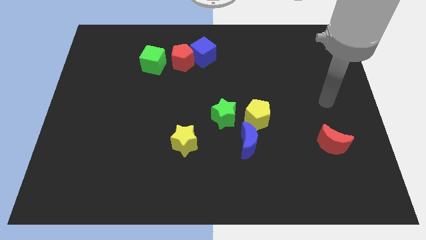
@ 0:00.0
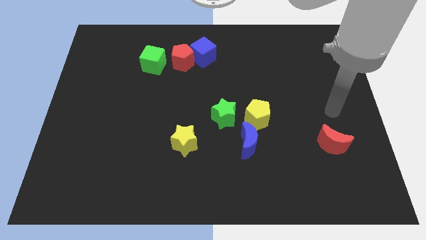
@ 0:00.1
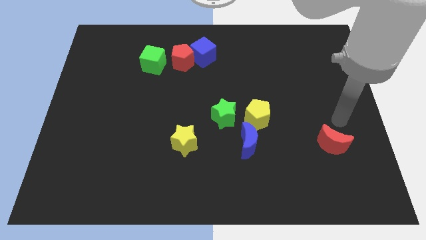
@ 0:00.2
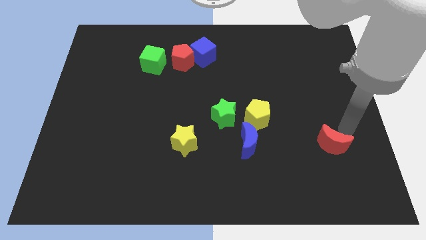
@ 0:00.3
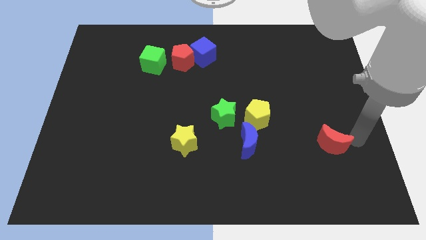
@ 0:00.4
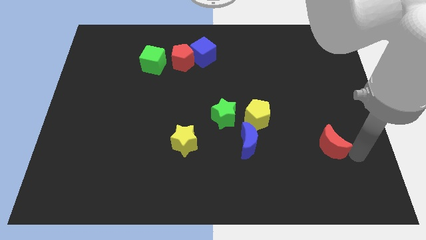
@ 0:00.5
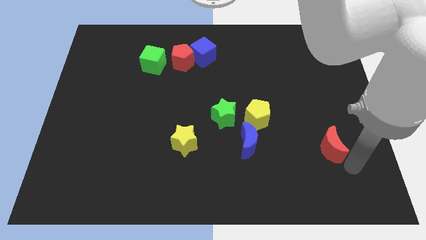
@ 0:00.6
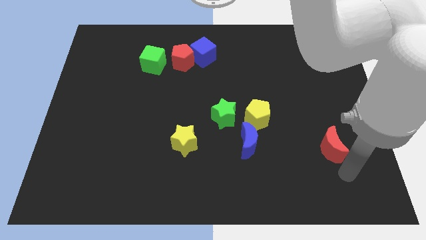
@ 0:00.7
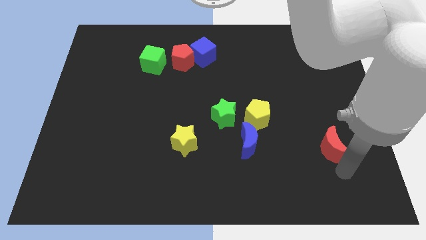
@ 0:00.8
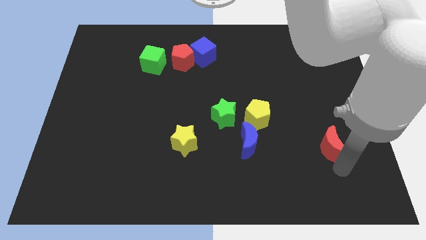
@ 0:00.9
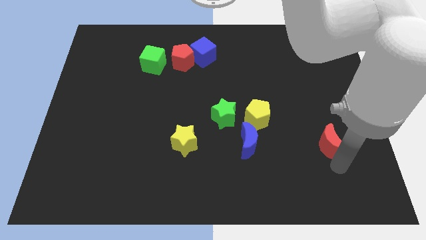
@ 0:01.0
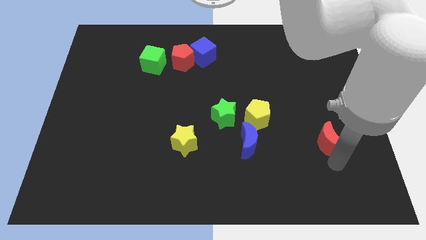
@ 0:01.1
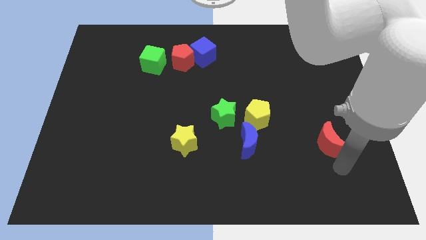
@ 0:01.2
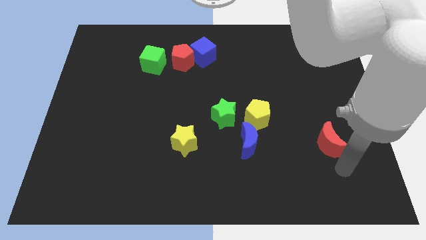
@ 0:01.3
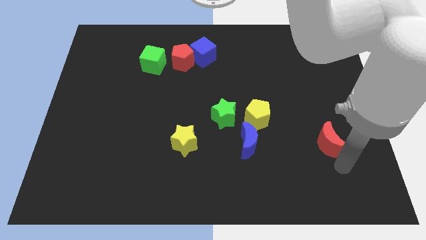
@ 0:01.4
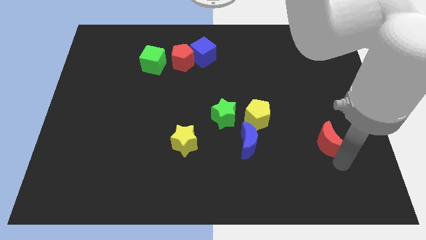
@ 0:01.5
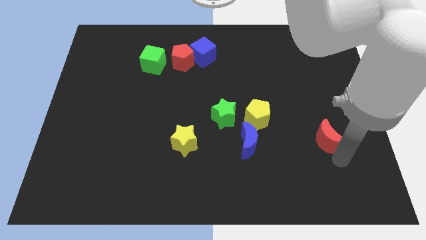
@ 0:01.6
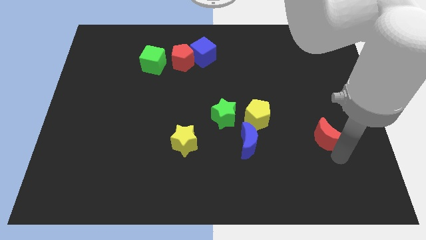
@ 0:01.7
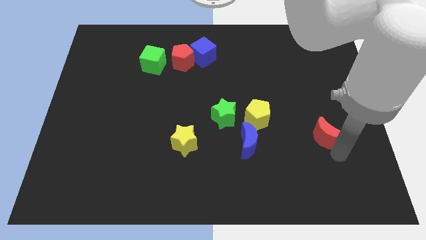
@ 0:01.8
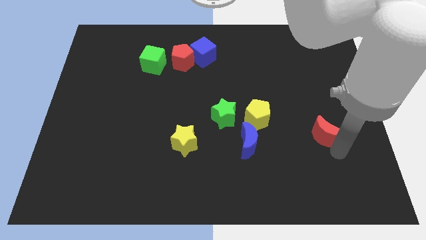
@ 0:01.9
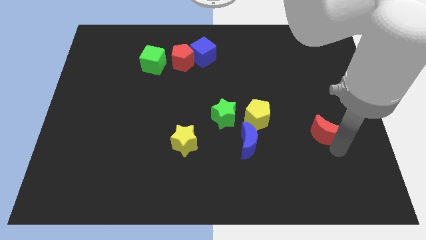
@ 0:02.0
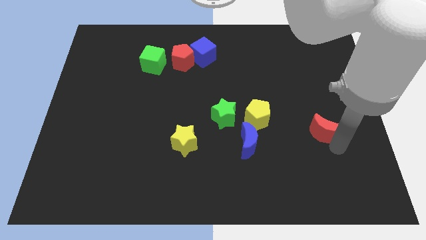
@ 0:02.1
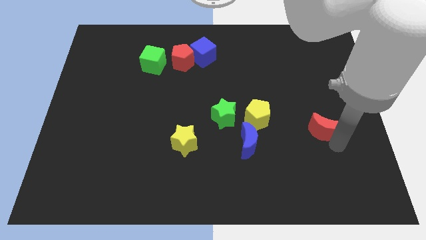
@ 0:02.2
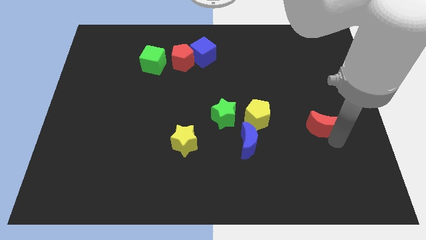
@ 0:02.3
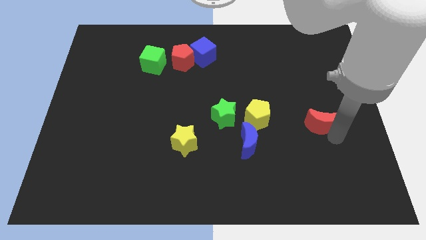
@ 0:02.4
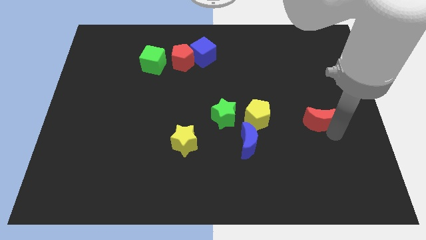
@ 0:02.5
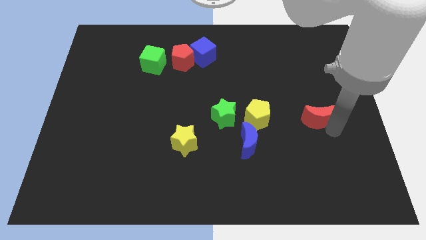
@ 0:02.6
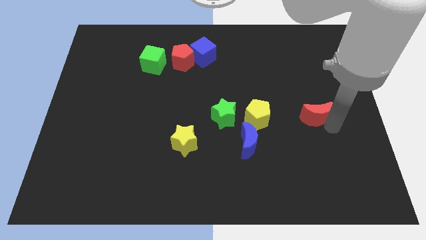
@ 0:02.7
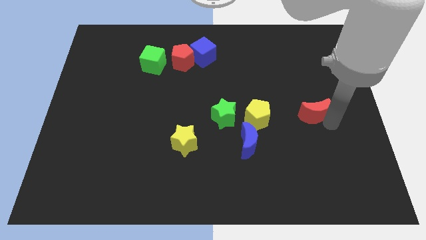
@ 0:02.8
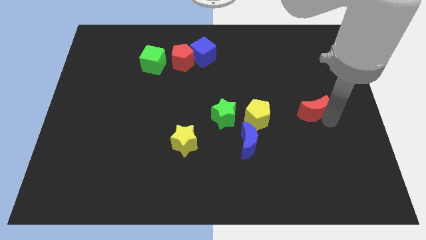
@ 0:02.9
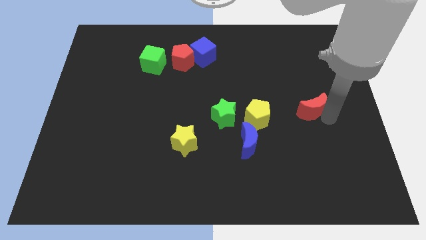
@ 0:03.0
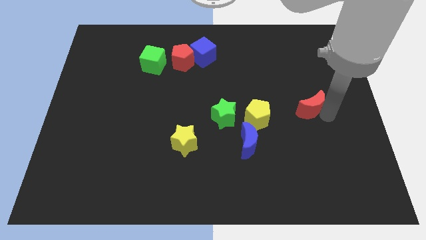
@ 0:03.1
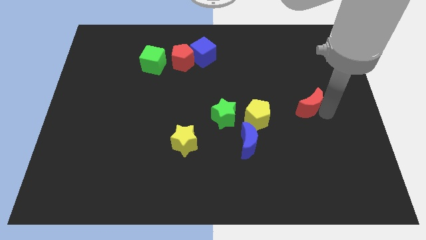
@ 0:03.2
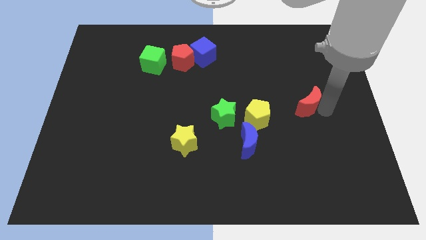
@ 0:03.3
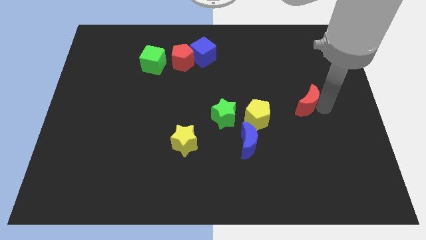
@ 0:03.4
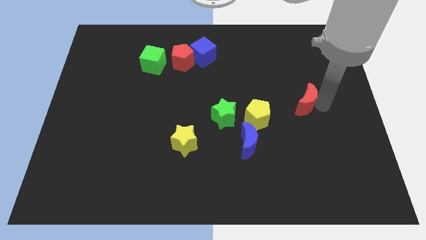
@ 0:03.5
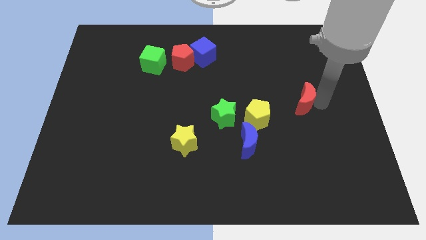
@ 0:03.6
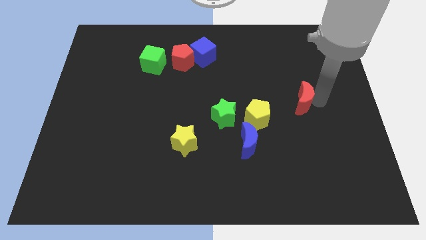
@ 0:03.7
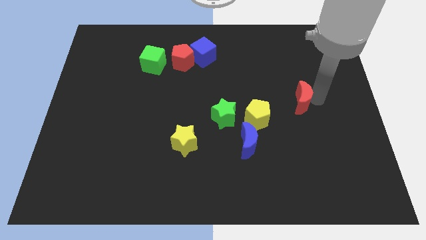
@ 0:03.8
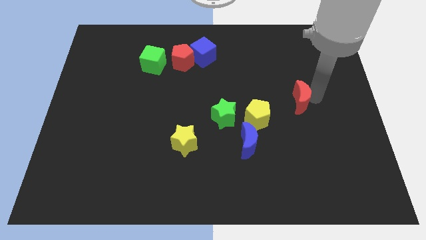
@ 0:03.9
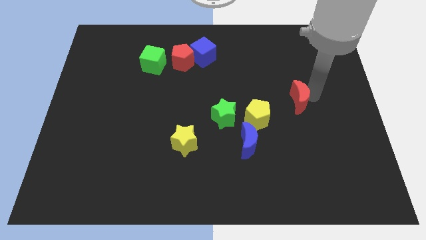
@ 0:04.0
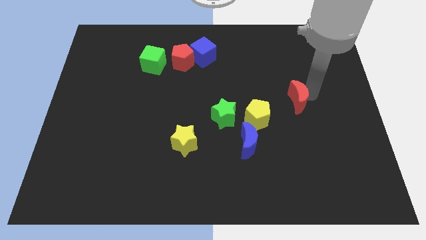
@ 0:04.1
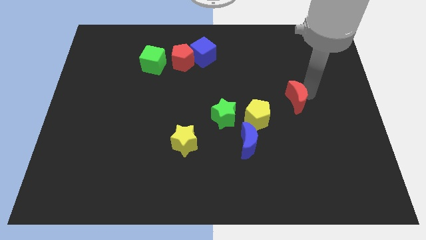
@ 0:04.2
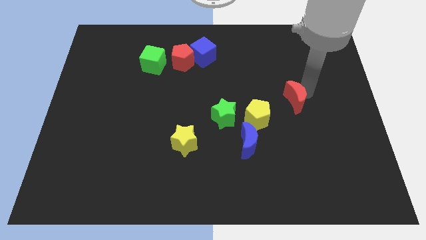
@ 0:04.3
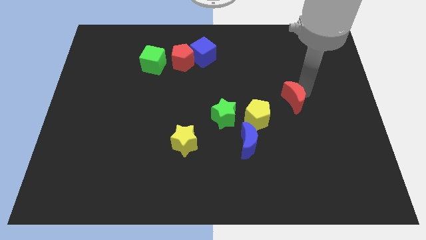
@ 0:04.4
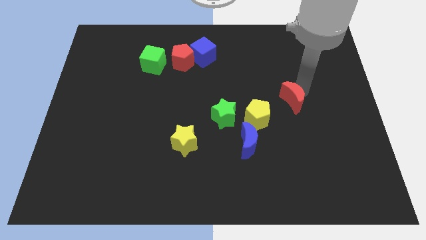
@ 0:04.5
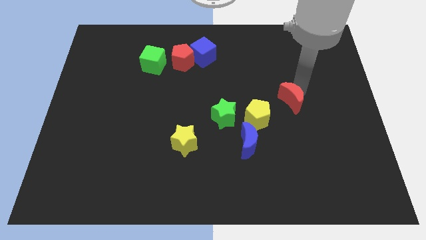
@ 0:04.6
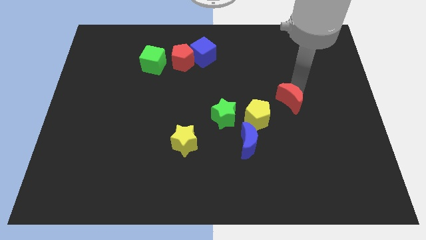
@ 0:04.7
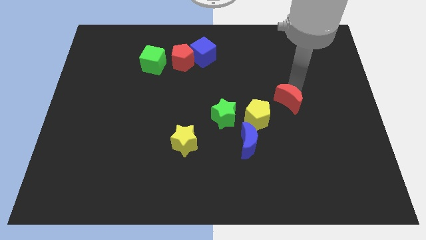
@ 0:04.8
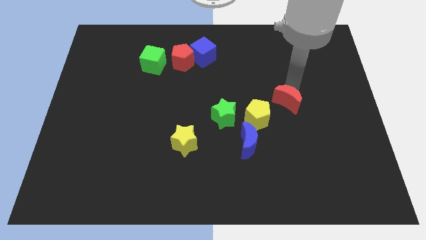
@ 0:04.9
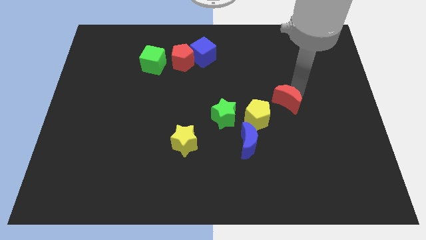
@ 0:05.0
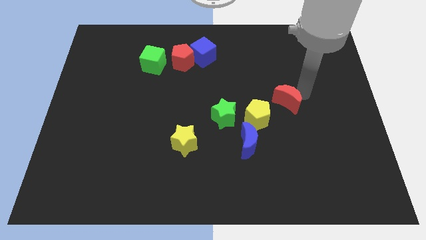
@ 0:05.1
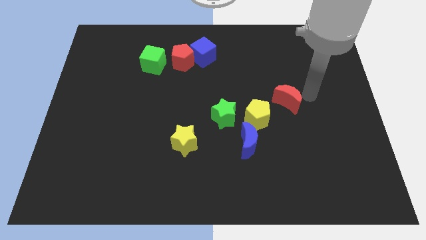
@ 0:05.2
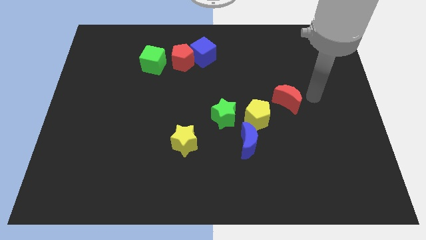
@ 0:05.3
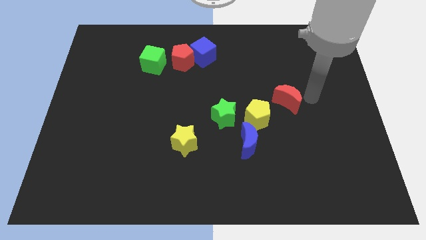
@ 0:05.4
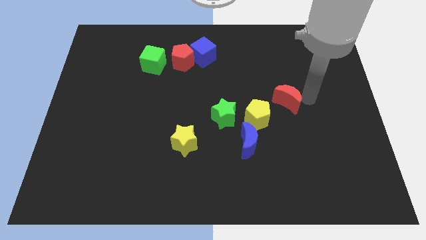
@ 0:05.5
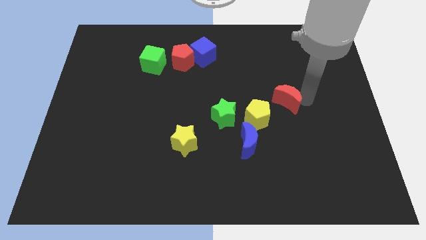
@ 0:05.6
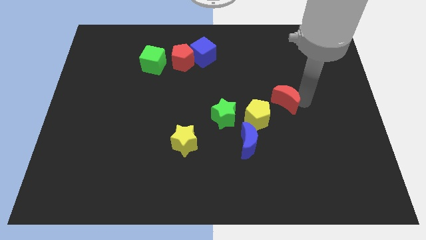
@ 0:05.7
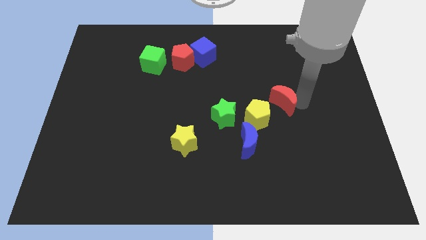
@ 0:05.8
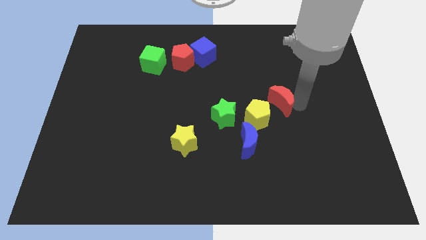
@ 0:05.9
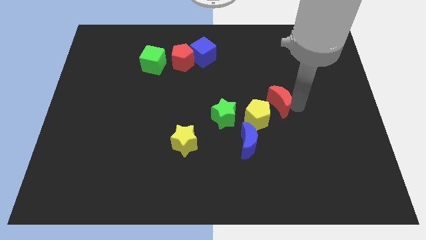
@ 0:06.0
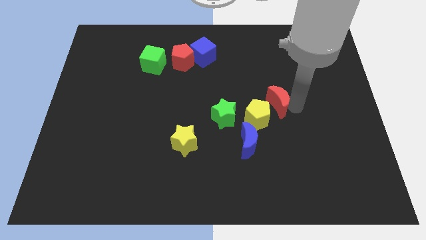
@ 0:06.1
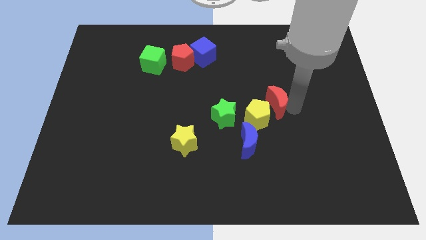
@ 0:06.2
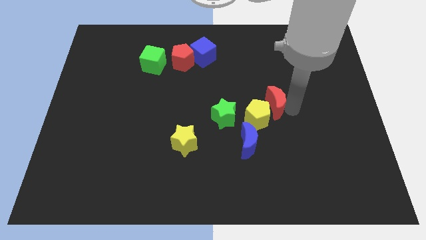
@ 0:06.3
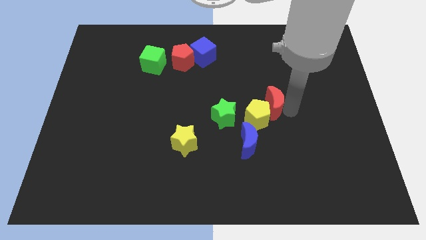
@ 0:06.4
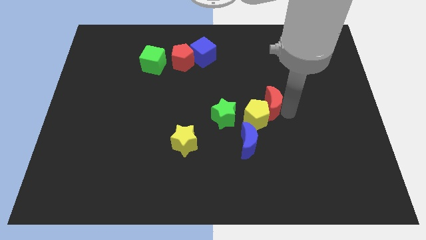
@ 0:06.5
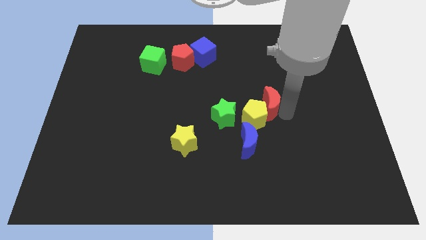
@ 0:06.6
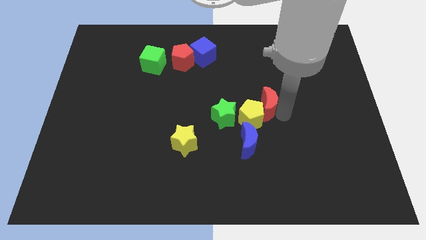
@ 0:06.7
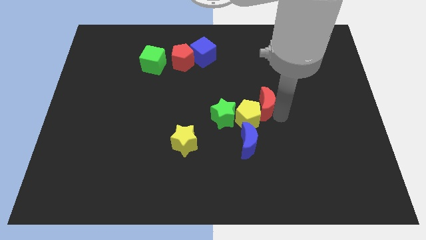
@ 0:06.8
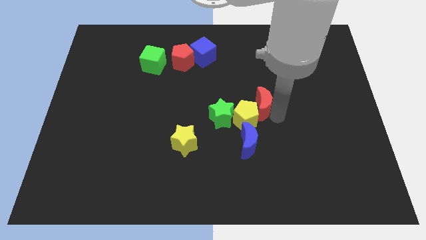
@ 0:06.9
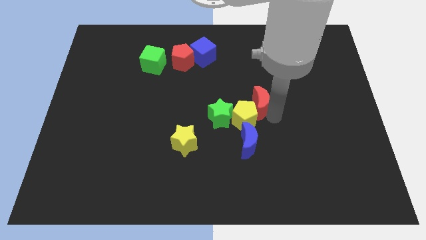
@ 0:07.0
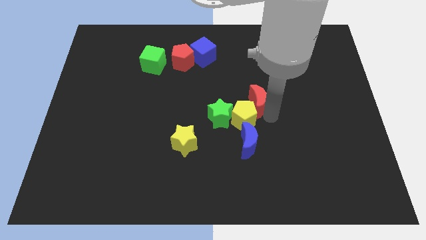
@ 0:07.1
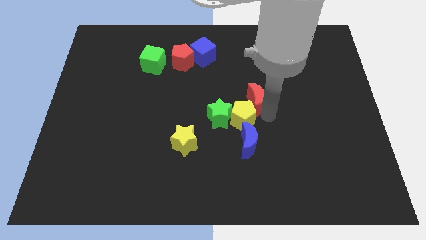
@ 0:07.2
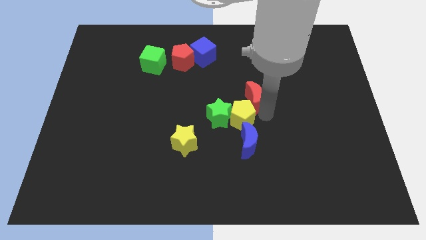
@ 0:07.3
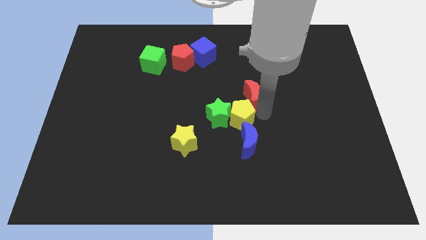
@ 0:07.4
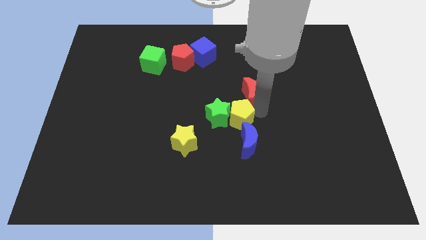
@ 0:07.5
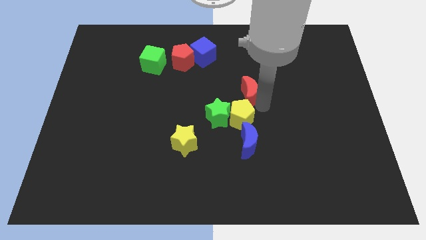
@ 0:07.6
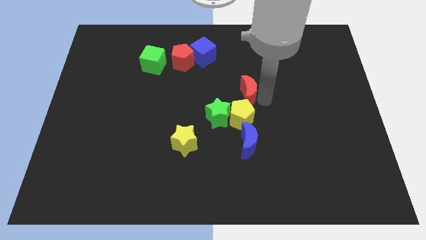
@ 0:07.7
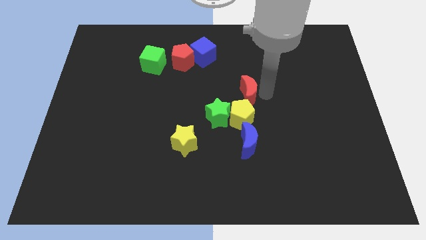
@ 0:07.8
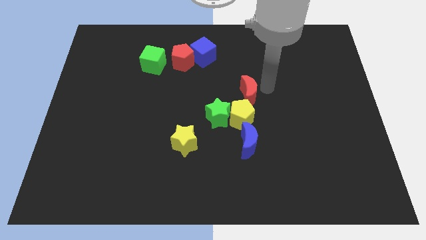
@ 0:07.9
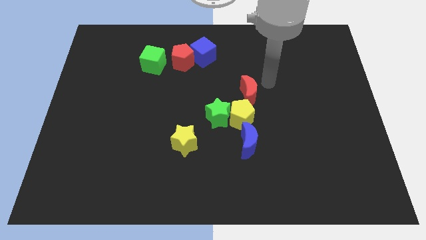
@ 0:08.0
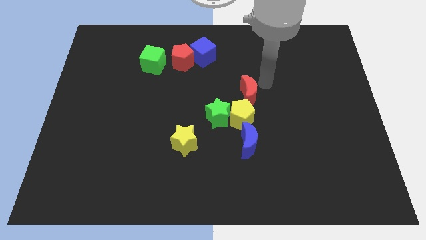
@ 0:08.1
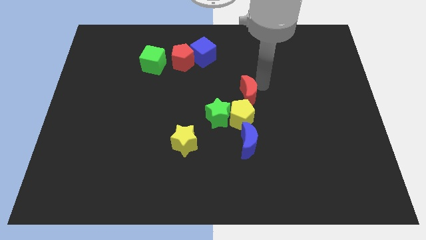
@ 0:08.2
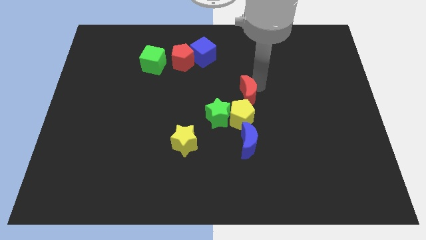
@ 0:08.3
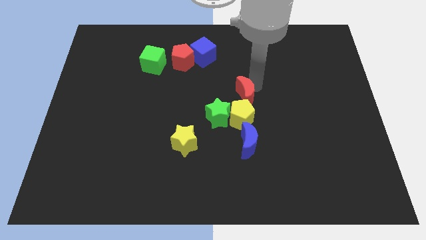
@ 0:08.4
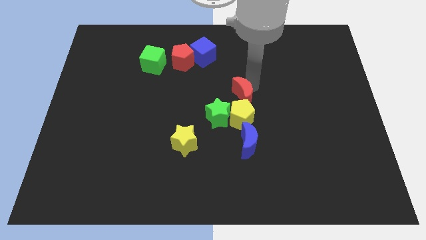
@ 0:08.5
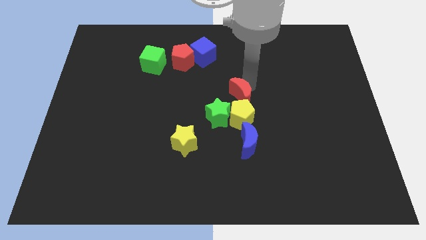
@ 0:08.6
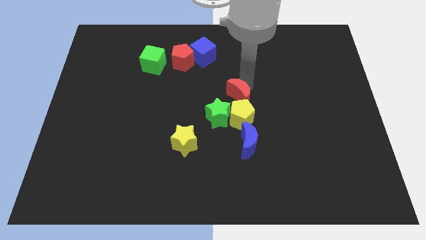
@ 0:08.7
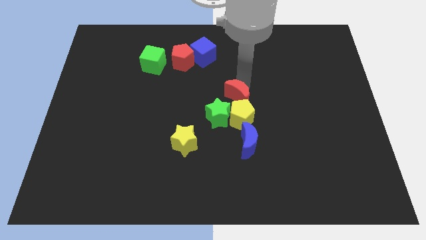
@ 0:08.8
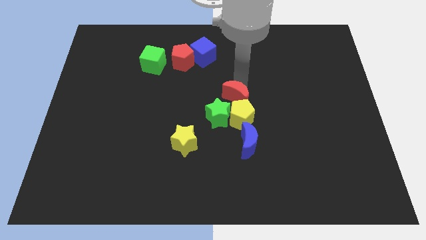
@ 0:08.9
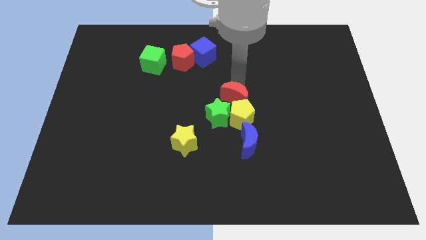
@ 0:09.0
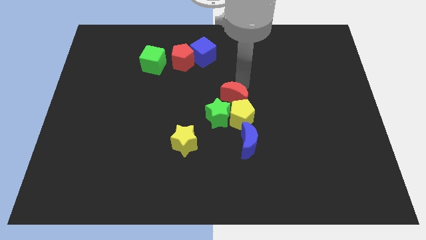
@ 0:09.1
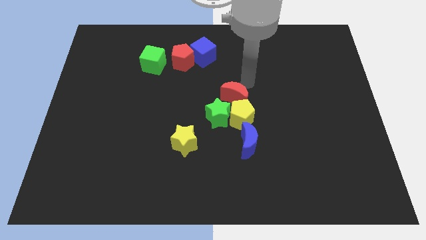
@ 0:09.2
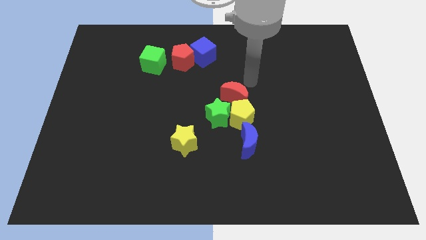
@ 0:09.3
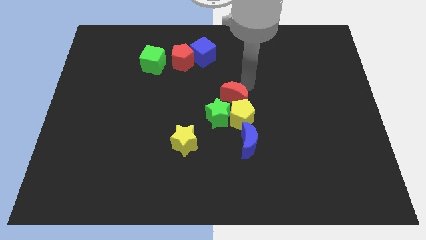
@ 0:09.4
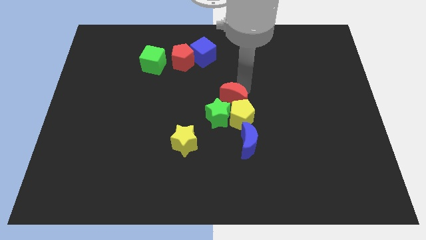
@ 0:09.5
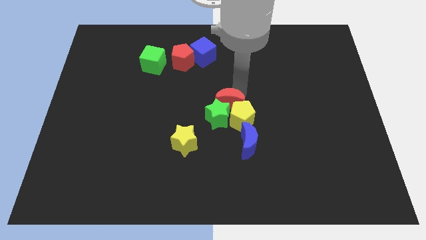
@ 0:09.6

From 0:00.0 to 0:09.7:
move the red moon close to the green star
